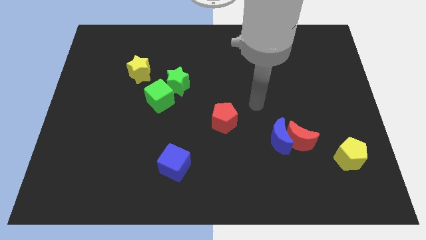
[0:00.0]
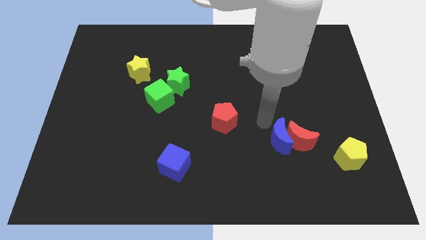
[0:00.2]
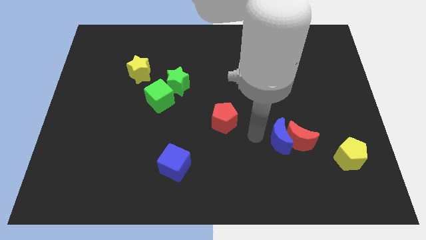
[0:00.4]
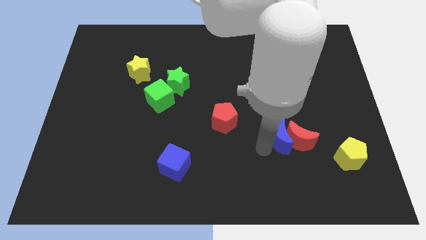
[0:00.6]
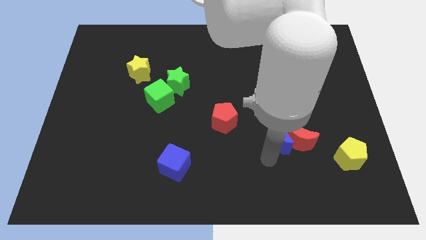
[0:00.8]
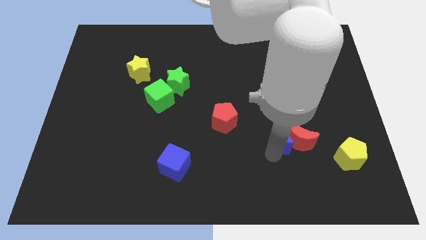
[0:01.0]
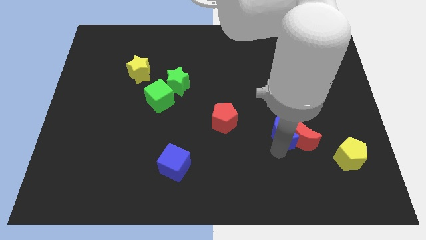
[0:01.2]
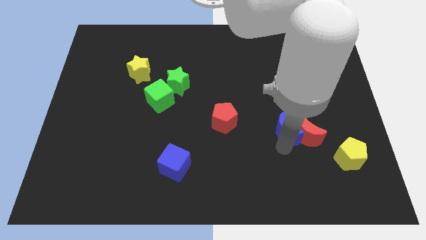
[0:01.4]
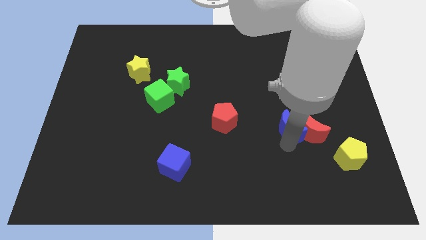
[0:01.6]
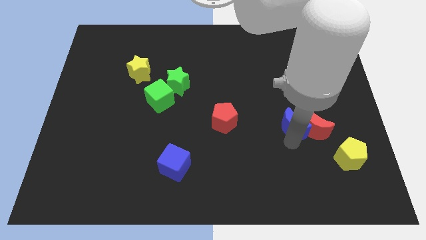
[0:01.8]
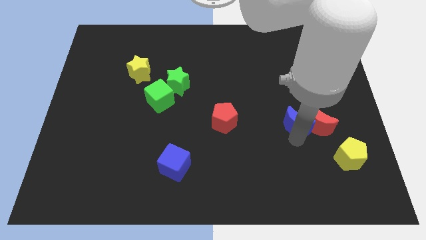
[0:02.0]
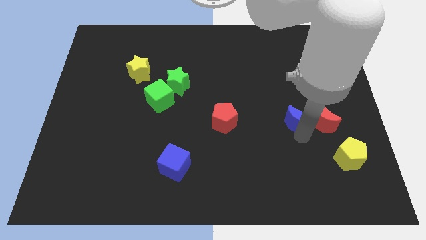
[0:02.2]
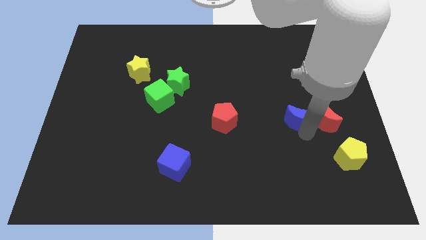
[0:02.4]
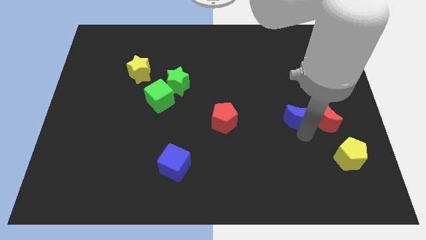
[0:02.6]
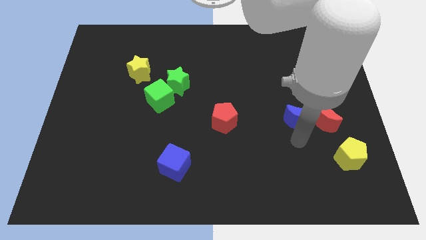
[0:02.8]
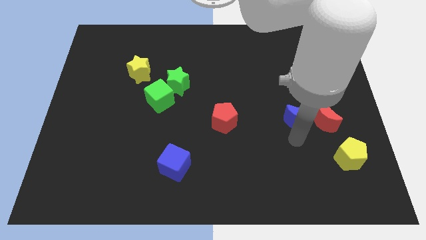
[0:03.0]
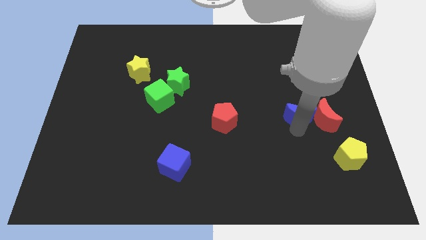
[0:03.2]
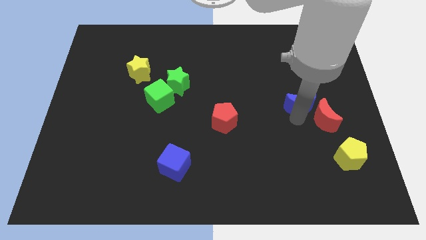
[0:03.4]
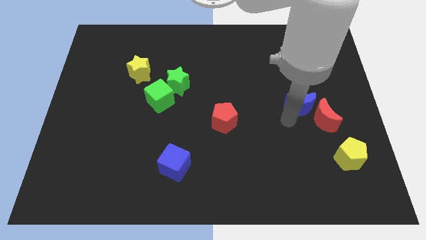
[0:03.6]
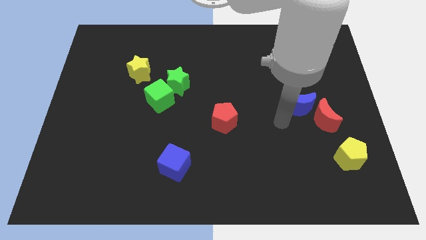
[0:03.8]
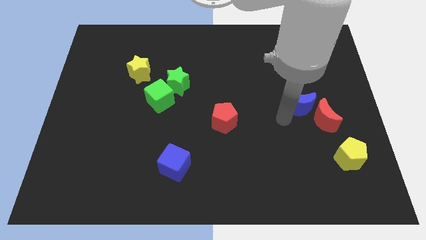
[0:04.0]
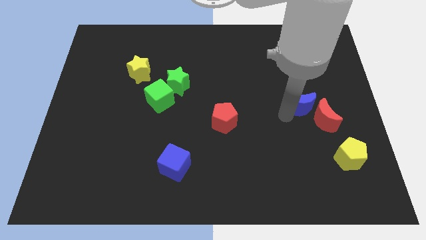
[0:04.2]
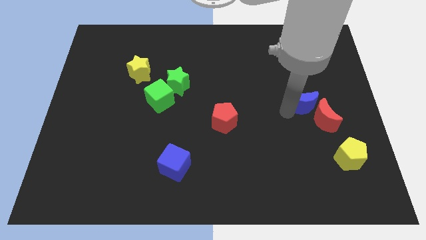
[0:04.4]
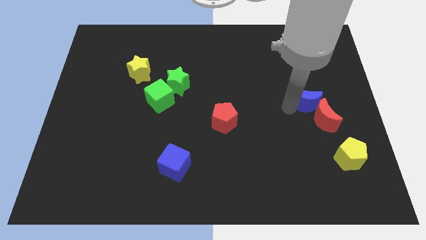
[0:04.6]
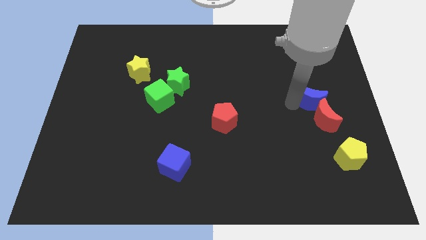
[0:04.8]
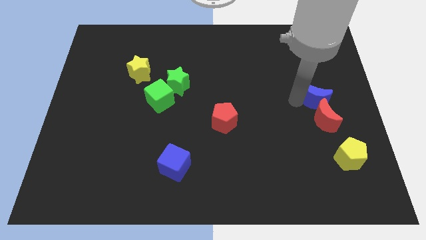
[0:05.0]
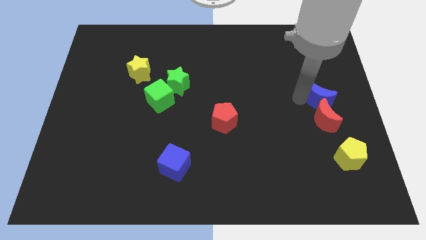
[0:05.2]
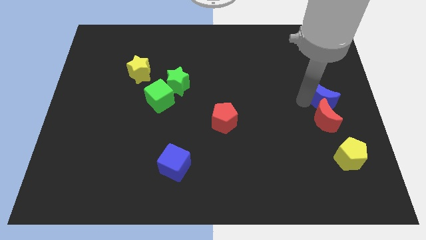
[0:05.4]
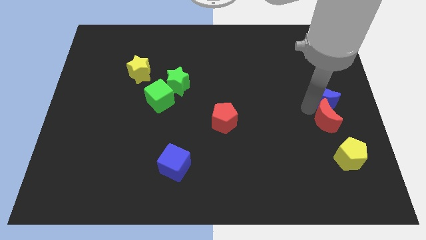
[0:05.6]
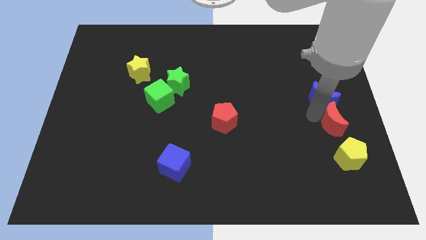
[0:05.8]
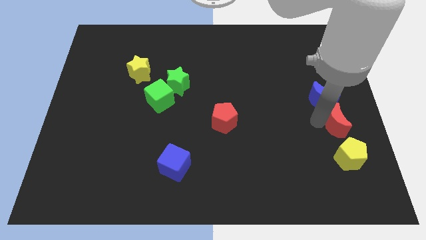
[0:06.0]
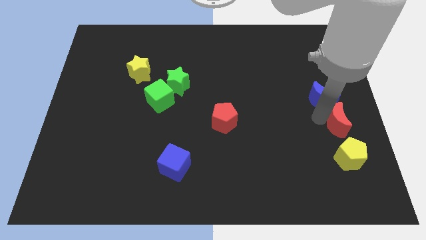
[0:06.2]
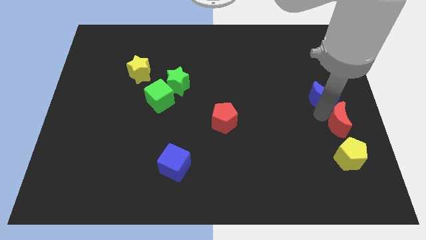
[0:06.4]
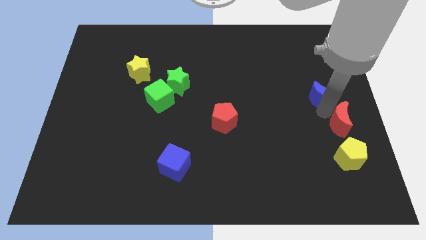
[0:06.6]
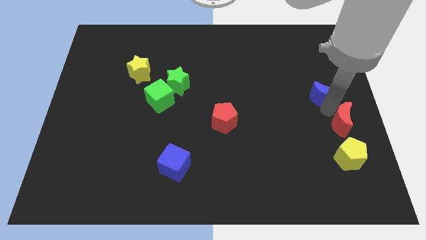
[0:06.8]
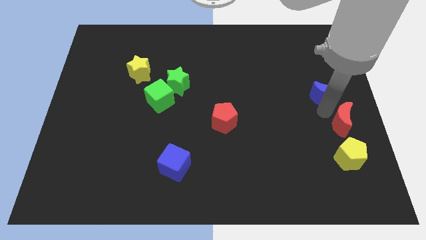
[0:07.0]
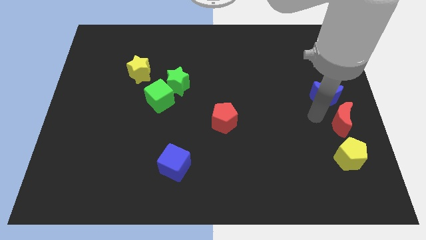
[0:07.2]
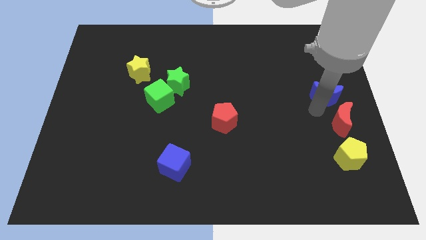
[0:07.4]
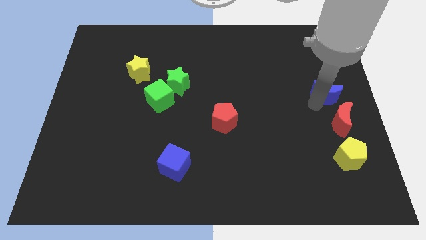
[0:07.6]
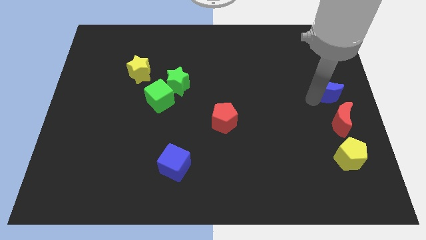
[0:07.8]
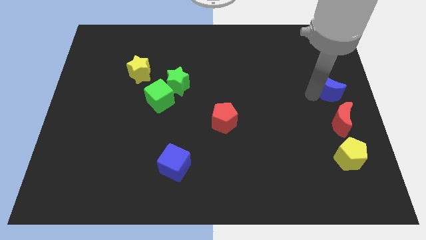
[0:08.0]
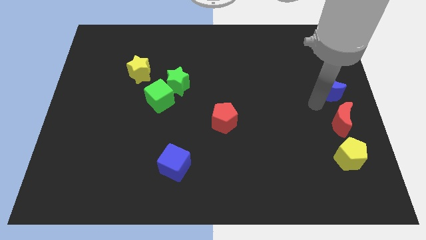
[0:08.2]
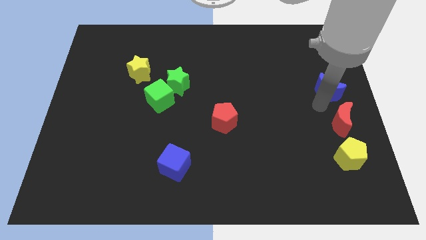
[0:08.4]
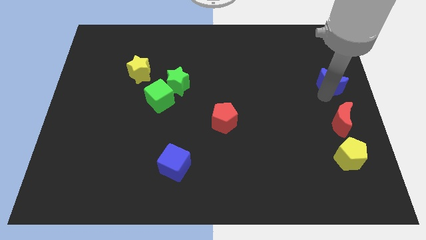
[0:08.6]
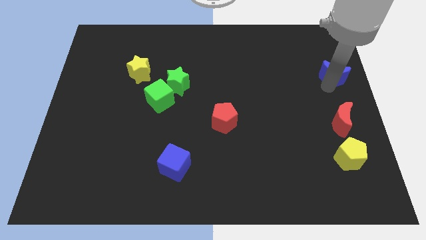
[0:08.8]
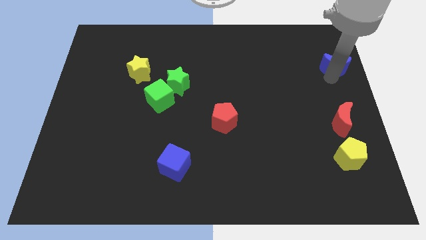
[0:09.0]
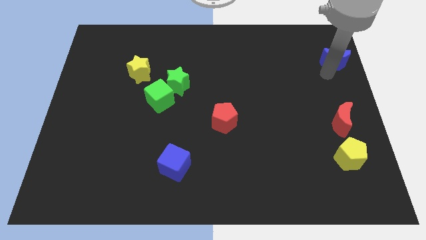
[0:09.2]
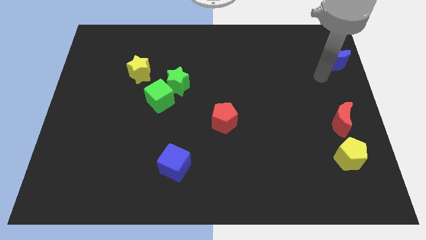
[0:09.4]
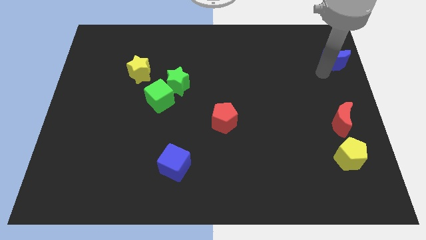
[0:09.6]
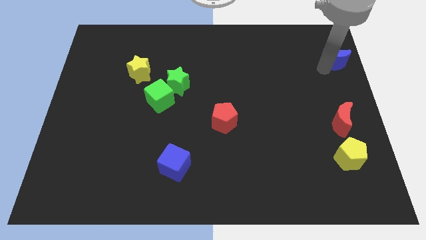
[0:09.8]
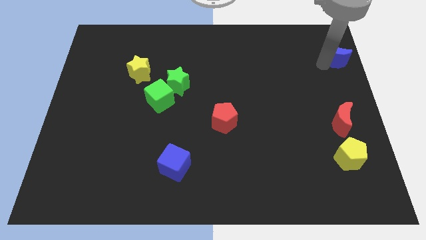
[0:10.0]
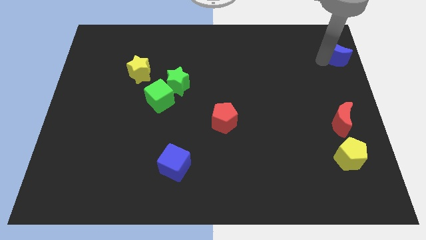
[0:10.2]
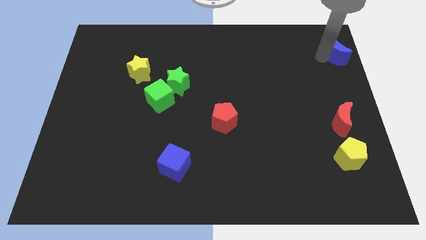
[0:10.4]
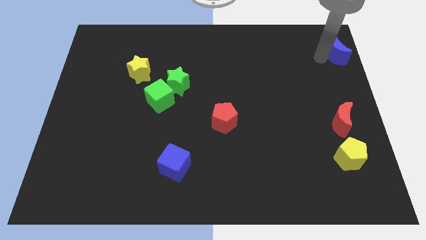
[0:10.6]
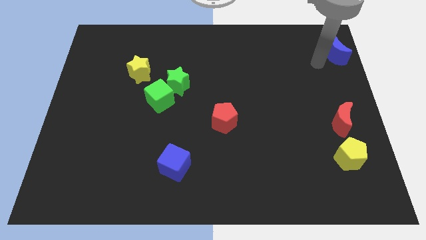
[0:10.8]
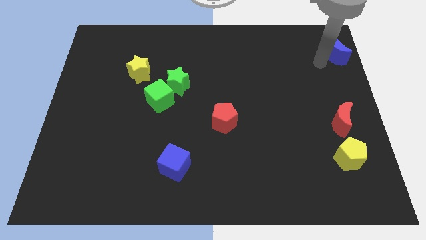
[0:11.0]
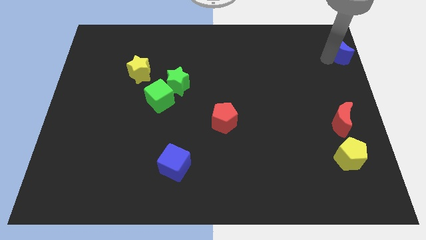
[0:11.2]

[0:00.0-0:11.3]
push the blue moon to the top right
